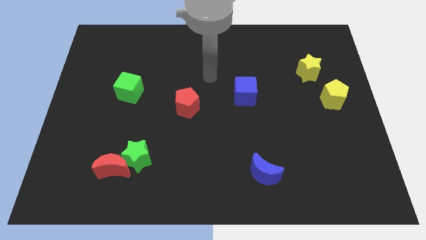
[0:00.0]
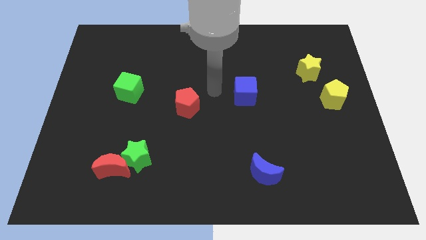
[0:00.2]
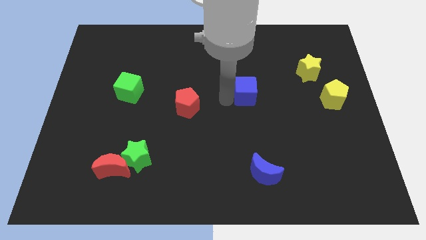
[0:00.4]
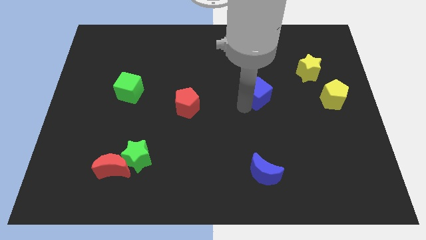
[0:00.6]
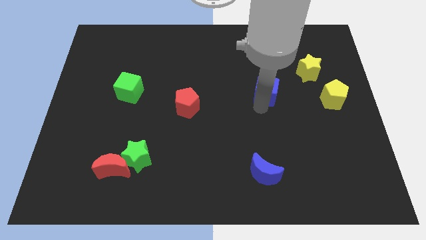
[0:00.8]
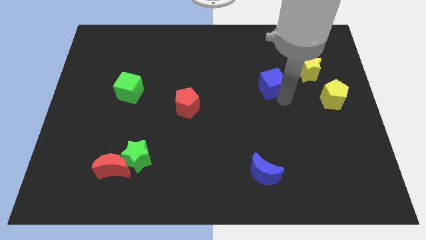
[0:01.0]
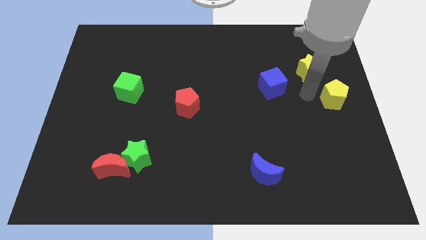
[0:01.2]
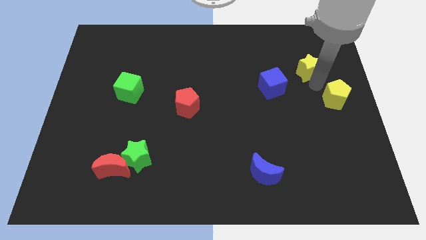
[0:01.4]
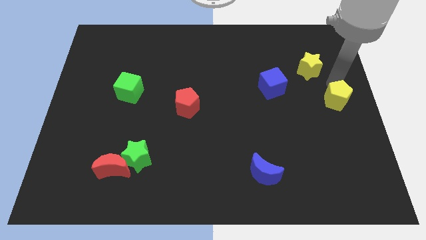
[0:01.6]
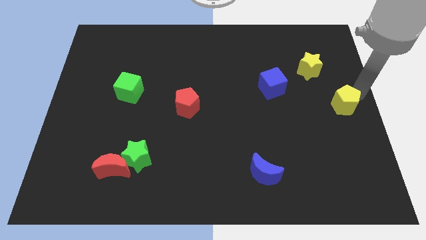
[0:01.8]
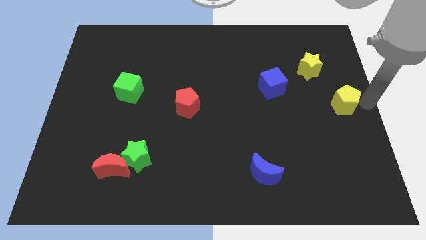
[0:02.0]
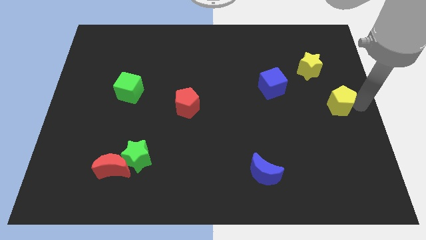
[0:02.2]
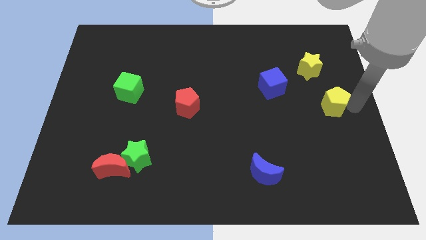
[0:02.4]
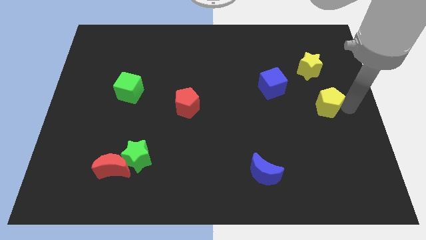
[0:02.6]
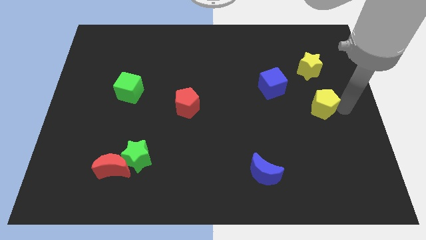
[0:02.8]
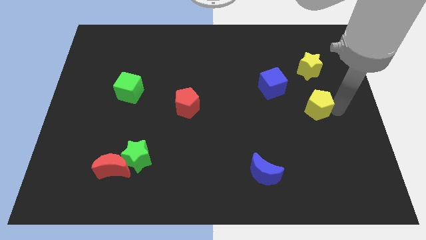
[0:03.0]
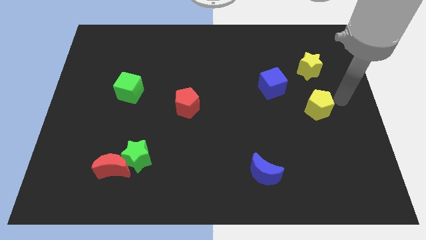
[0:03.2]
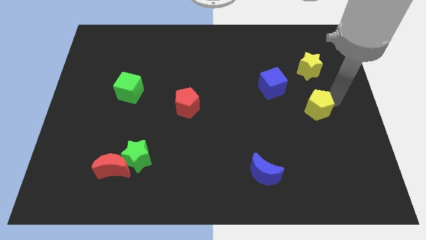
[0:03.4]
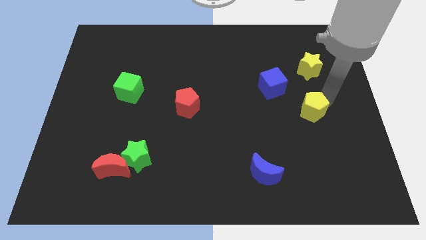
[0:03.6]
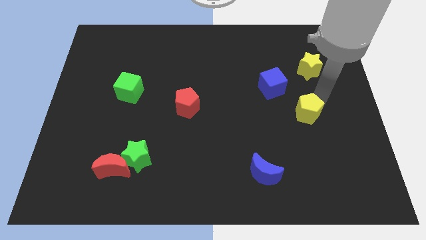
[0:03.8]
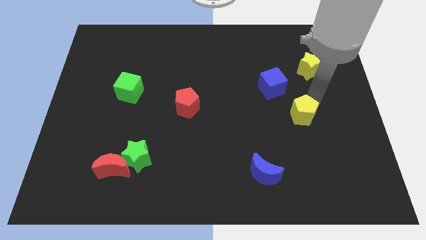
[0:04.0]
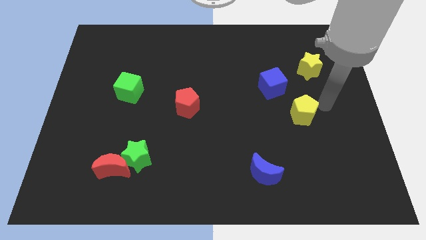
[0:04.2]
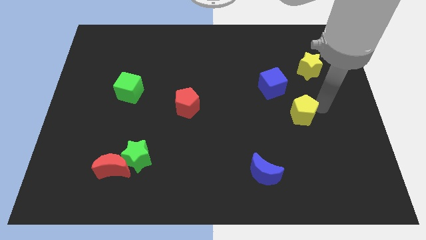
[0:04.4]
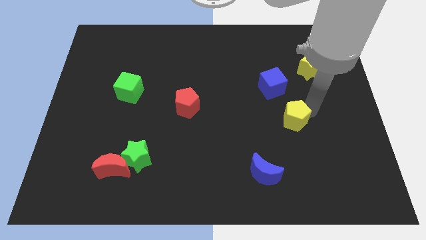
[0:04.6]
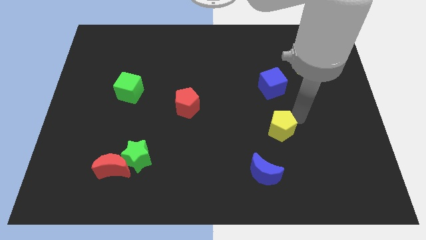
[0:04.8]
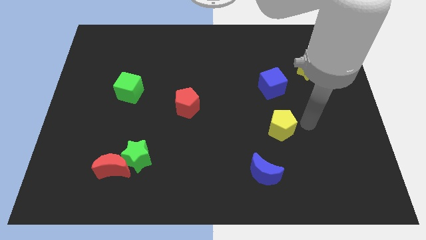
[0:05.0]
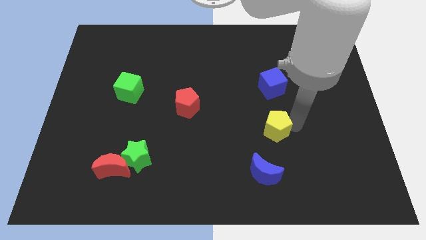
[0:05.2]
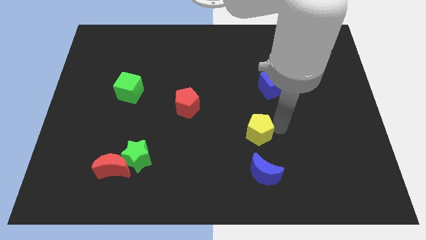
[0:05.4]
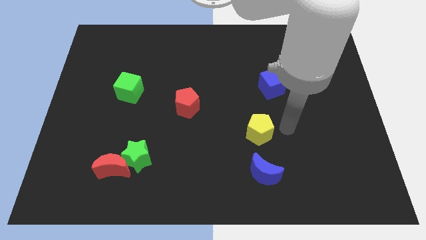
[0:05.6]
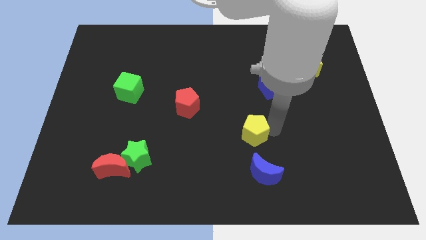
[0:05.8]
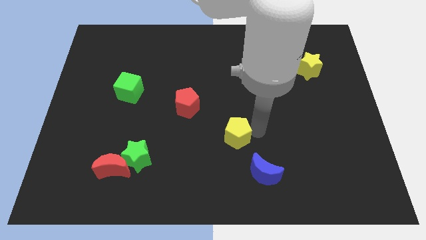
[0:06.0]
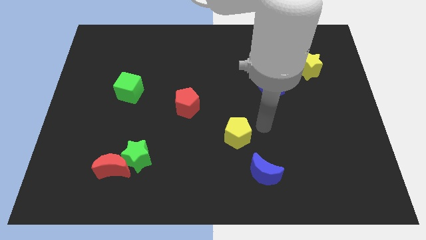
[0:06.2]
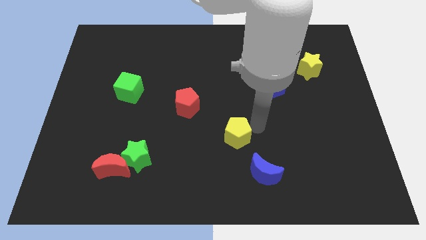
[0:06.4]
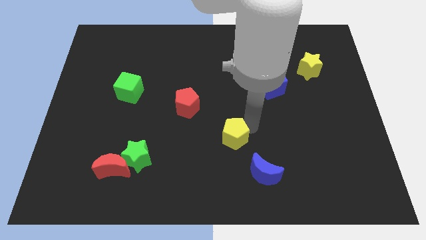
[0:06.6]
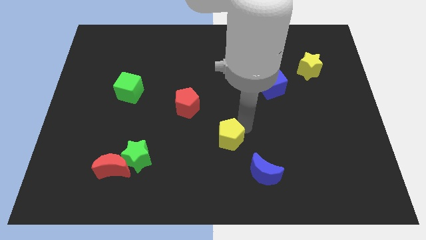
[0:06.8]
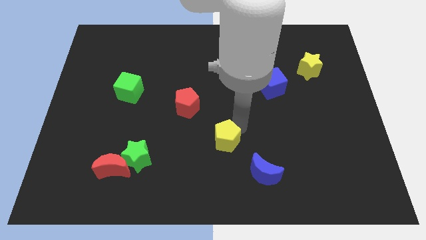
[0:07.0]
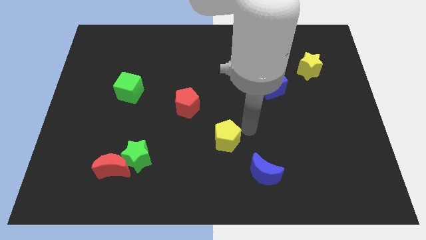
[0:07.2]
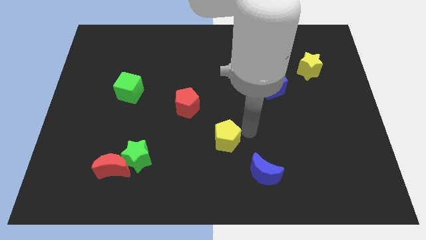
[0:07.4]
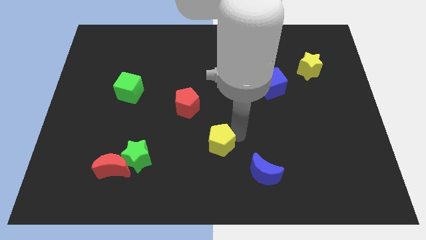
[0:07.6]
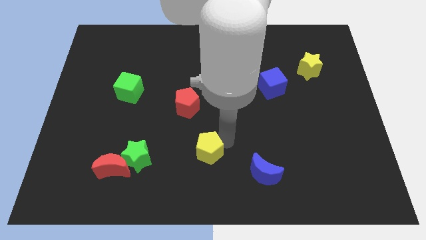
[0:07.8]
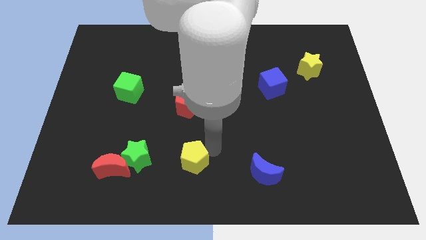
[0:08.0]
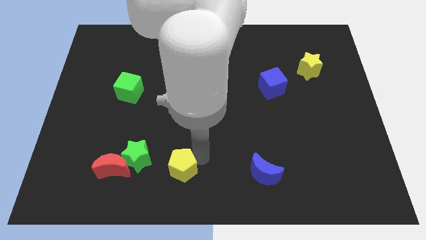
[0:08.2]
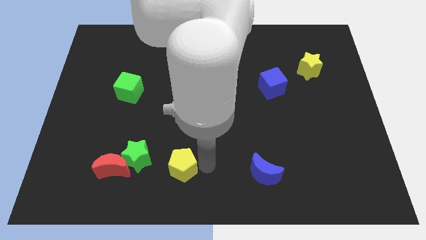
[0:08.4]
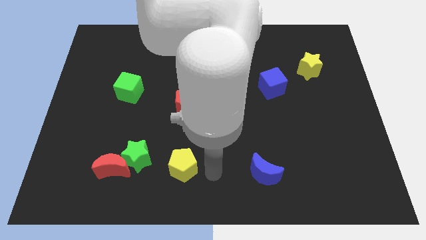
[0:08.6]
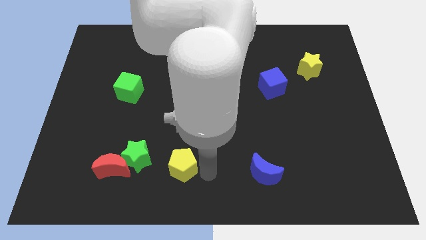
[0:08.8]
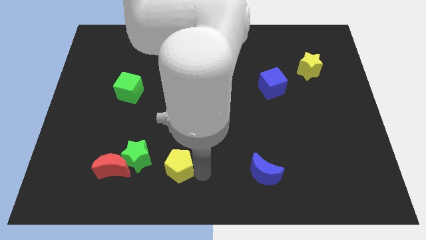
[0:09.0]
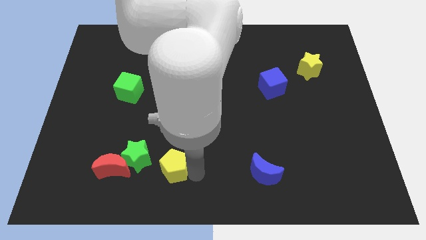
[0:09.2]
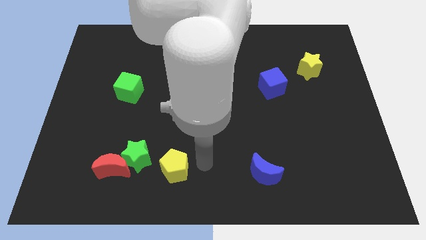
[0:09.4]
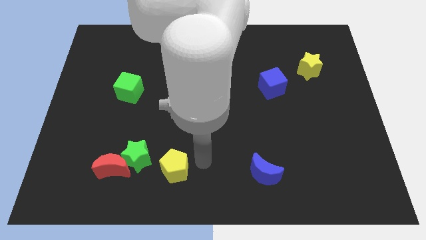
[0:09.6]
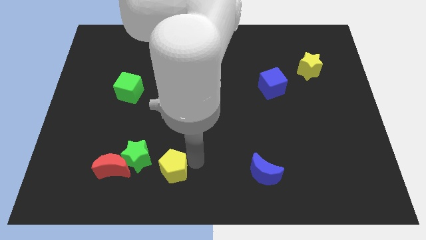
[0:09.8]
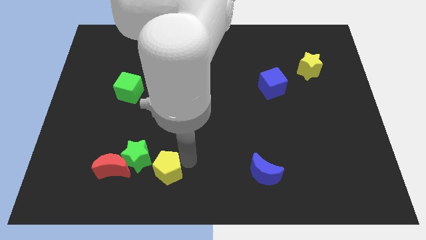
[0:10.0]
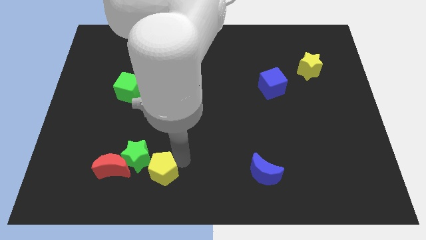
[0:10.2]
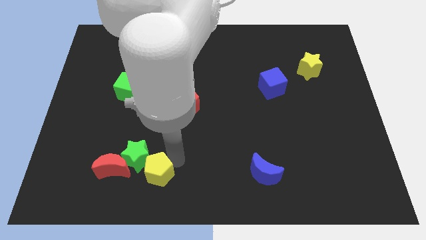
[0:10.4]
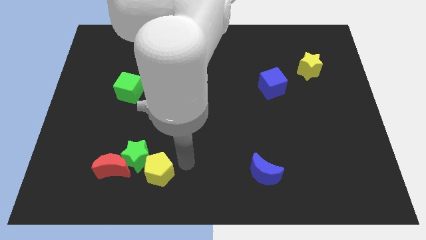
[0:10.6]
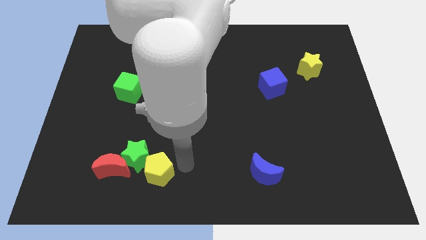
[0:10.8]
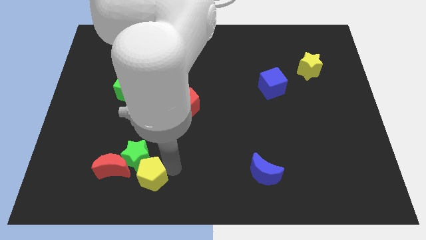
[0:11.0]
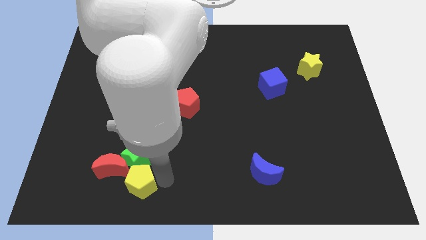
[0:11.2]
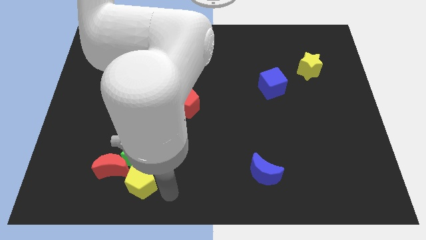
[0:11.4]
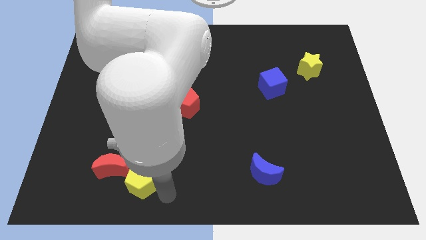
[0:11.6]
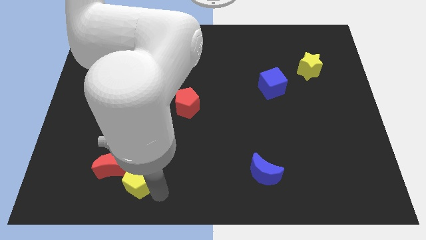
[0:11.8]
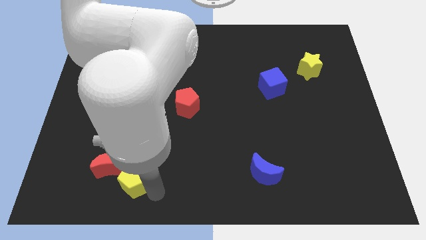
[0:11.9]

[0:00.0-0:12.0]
push the yellow pentagon close to the red moon

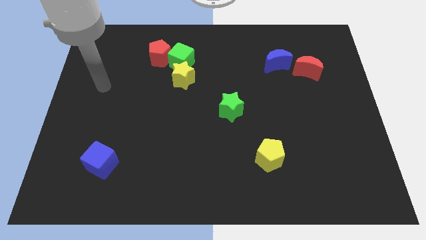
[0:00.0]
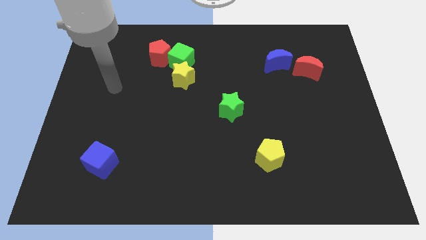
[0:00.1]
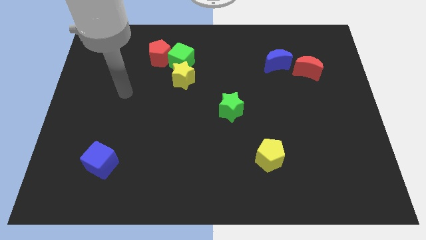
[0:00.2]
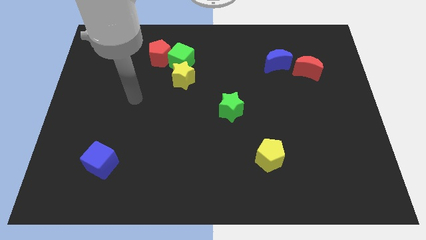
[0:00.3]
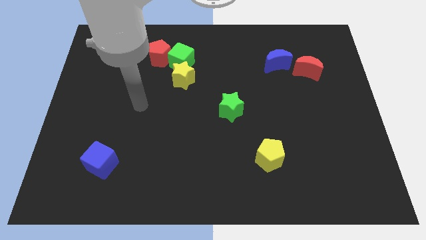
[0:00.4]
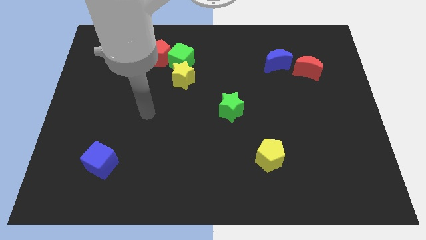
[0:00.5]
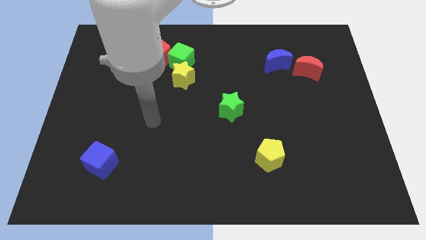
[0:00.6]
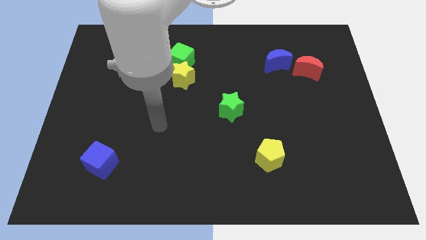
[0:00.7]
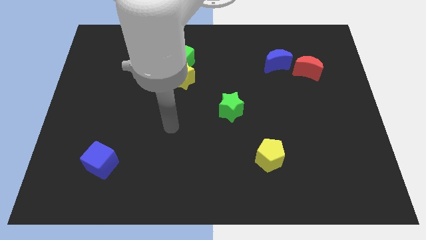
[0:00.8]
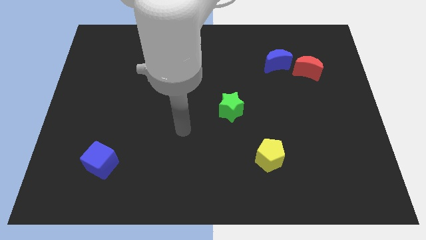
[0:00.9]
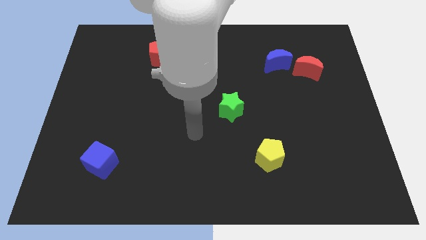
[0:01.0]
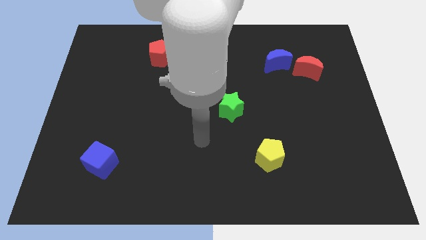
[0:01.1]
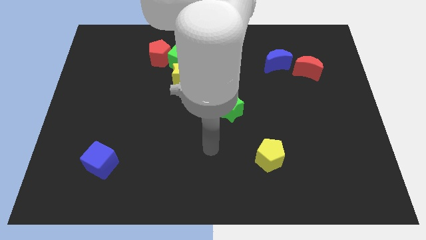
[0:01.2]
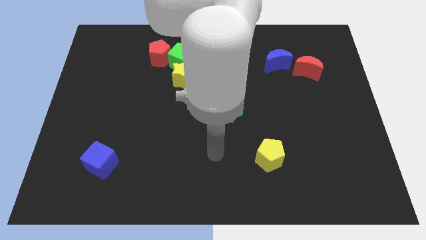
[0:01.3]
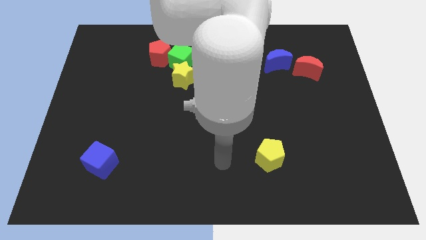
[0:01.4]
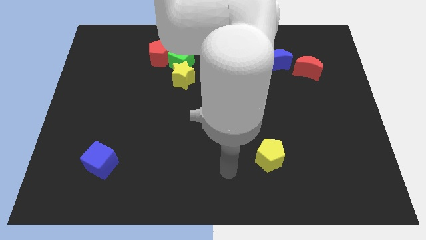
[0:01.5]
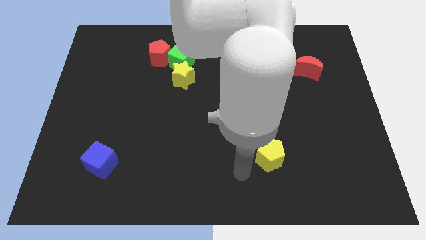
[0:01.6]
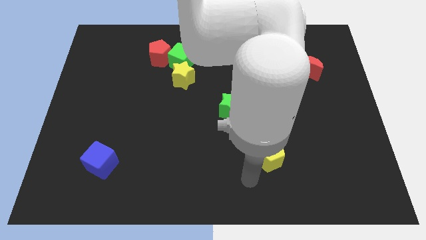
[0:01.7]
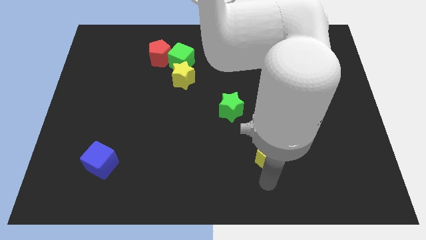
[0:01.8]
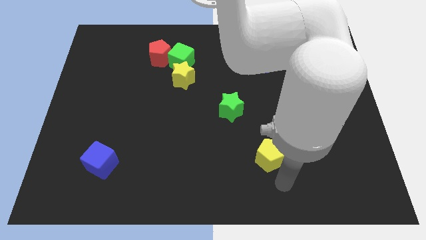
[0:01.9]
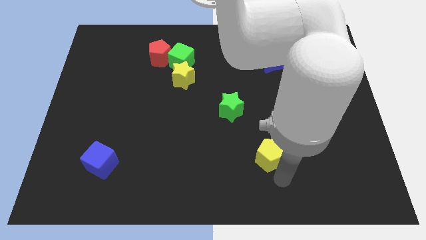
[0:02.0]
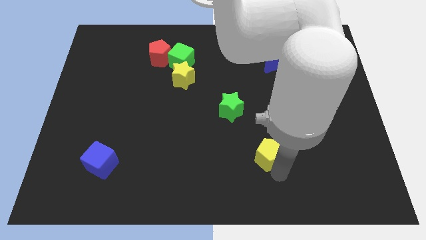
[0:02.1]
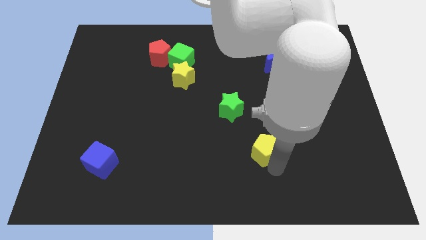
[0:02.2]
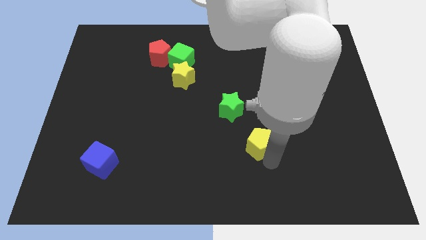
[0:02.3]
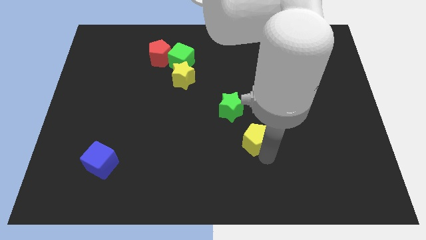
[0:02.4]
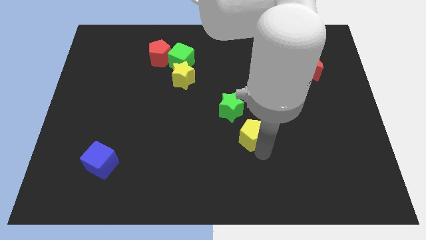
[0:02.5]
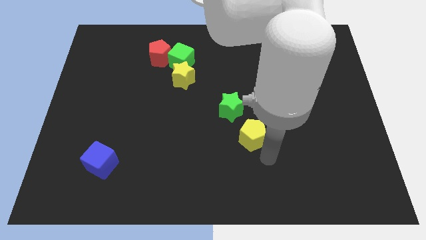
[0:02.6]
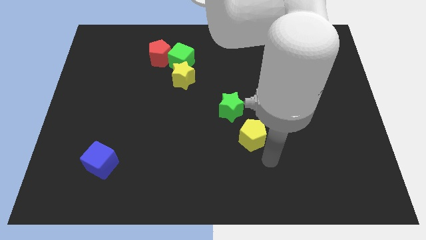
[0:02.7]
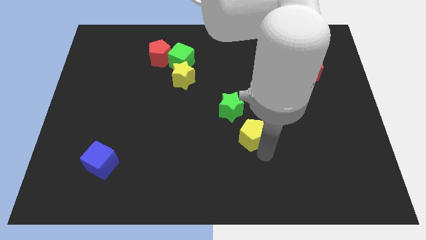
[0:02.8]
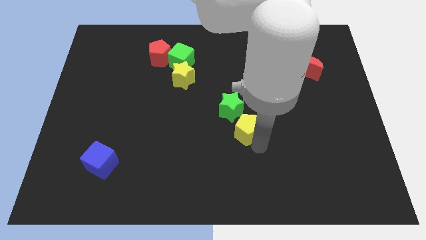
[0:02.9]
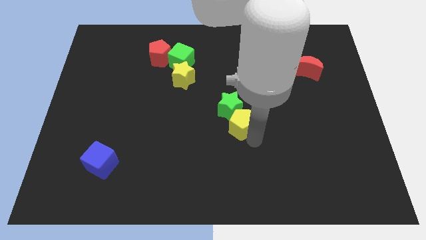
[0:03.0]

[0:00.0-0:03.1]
put the yellow pentagon close to the green star
